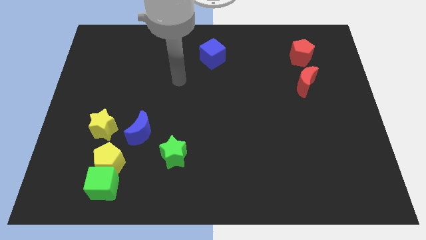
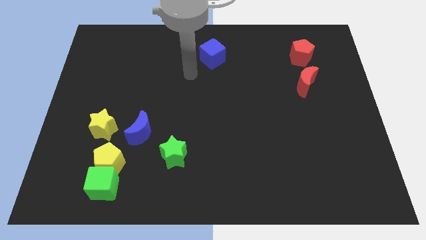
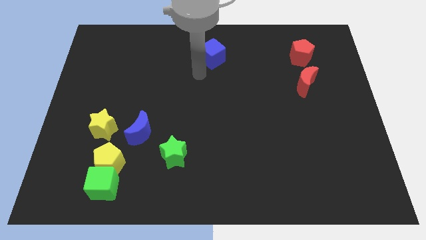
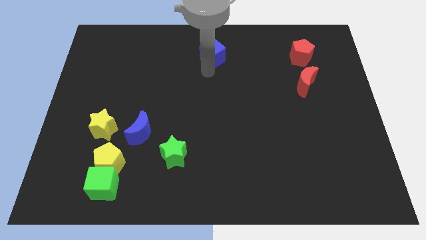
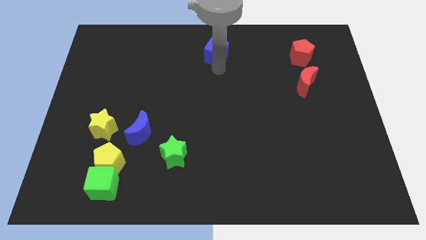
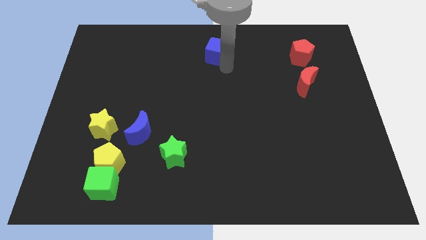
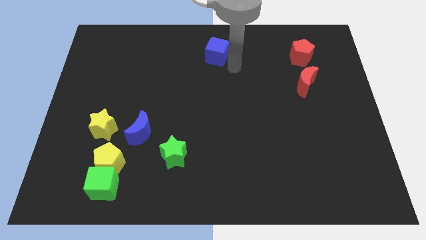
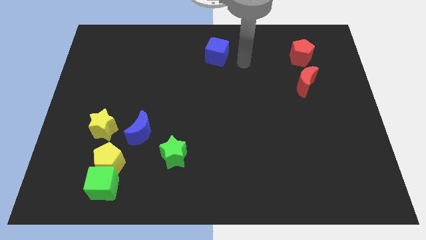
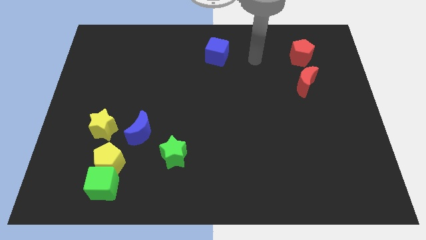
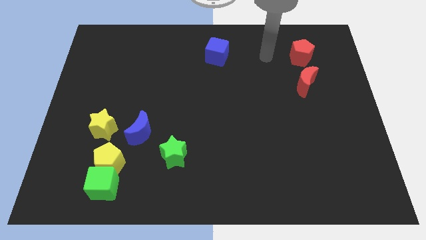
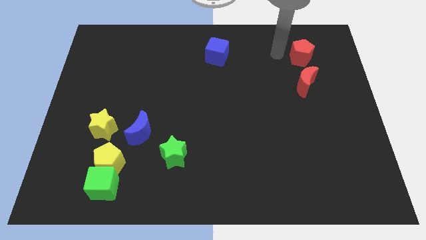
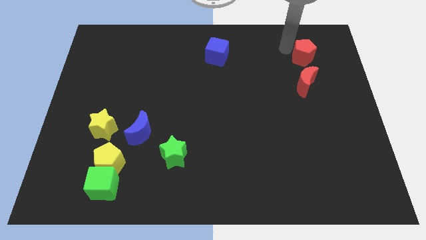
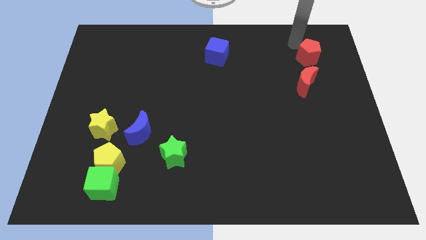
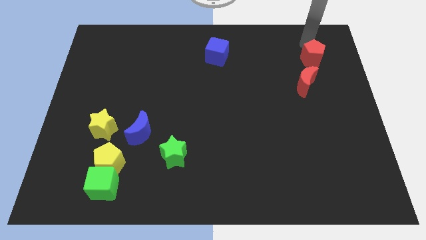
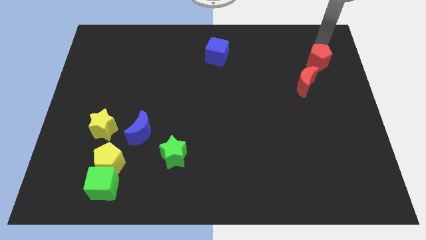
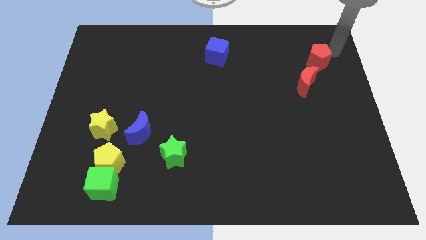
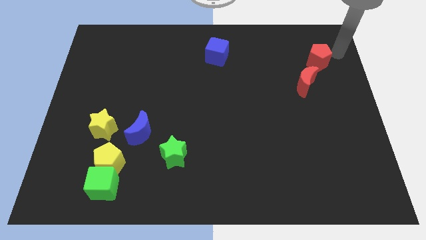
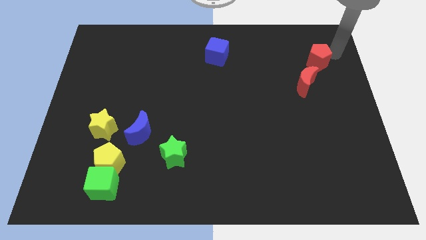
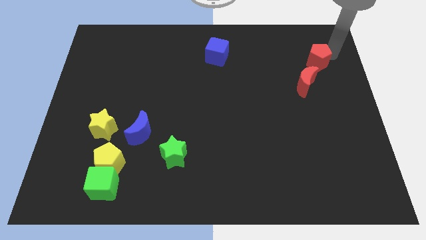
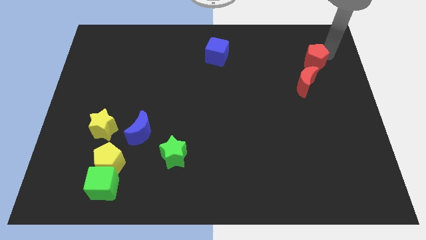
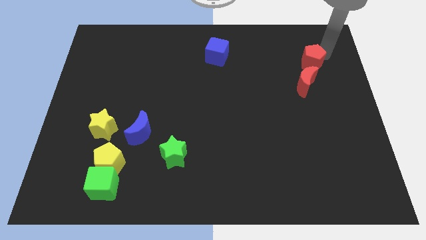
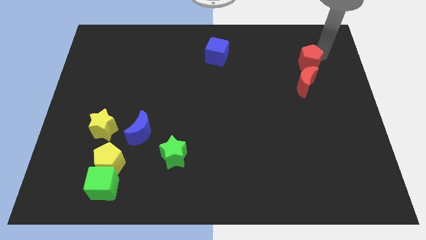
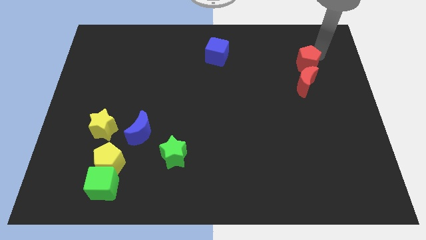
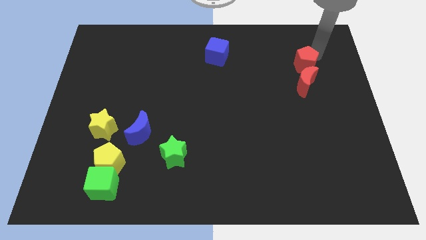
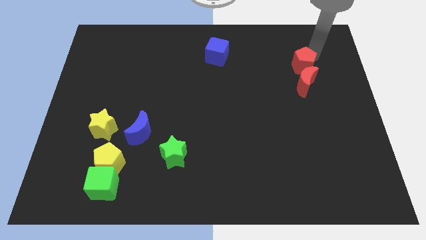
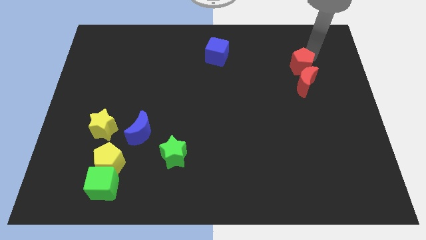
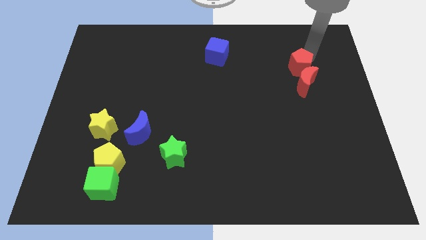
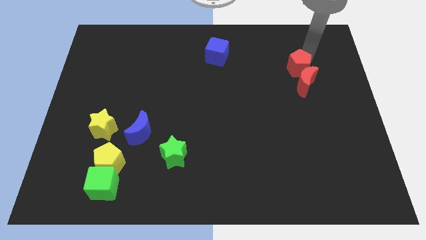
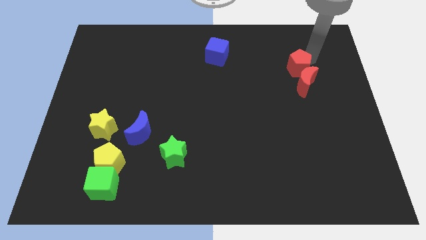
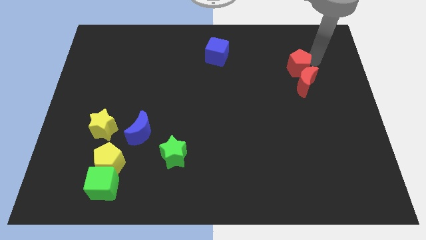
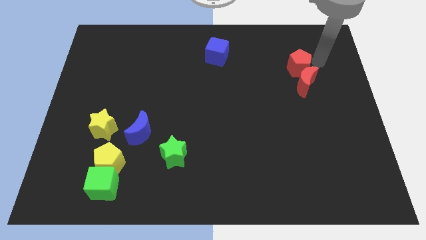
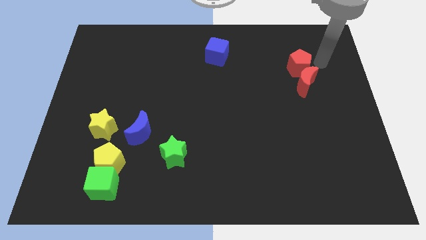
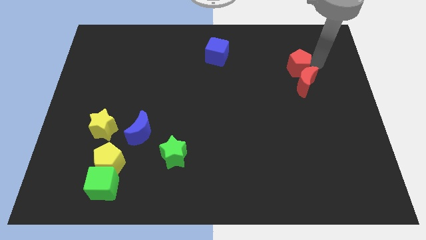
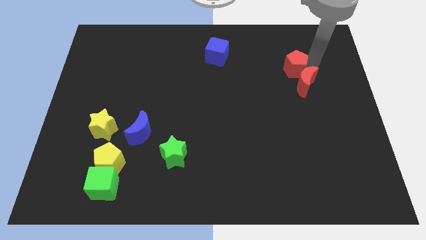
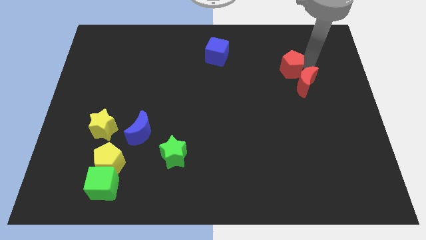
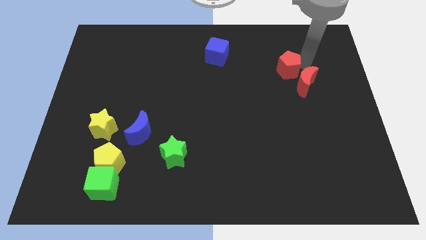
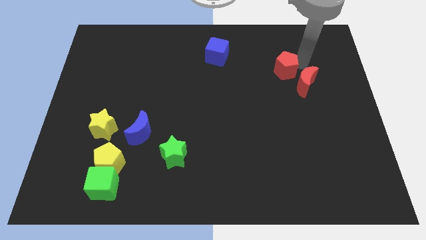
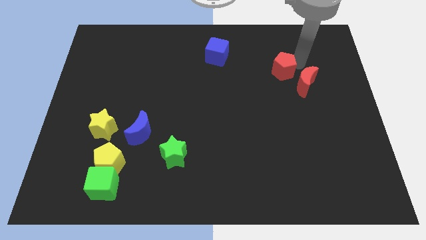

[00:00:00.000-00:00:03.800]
slightly move the red pentagon diagonally downwards and to the left

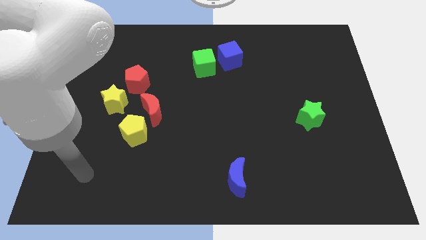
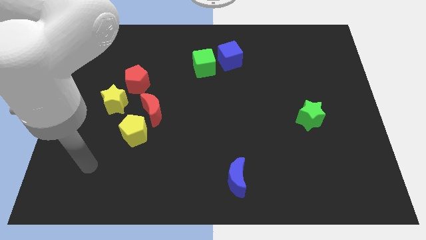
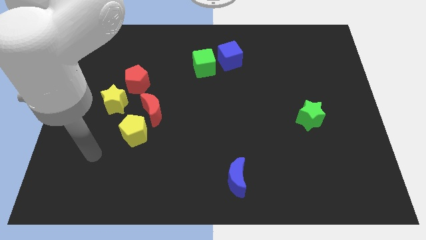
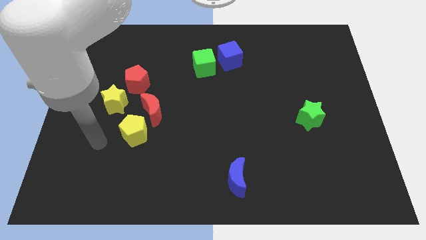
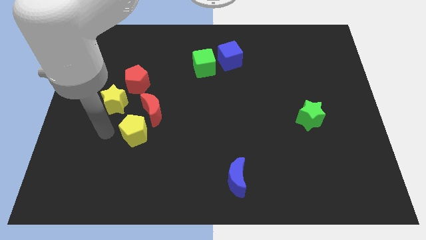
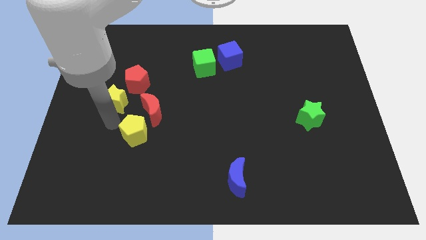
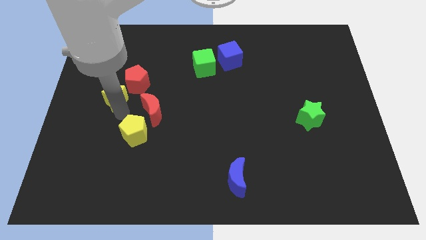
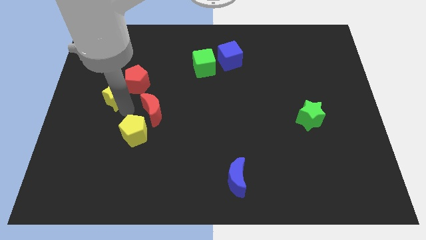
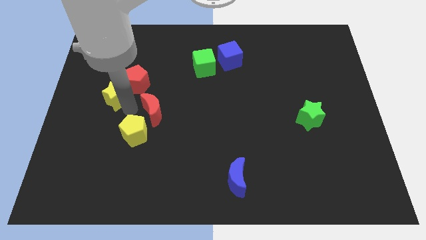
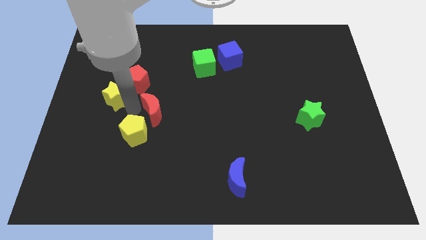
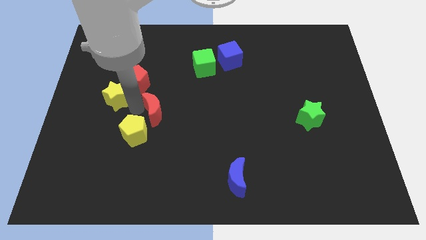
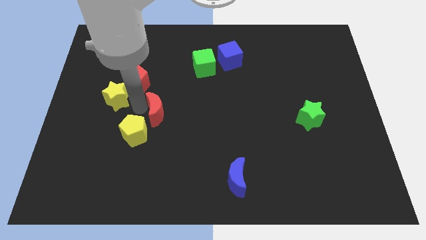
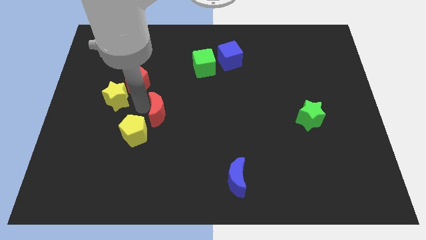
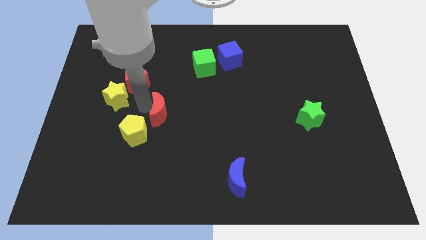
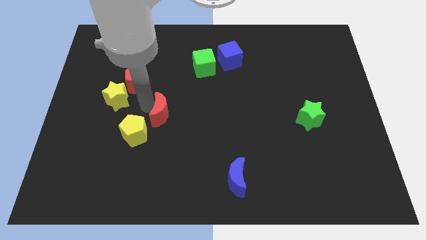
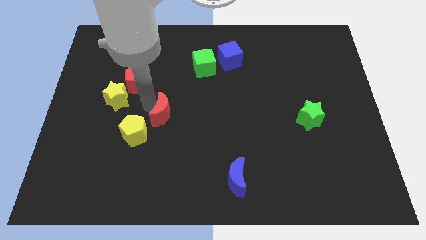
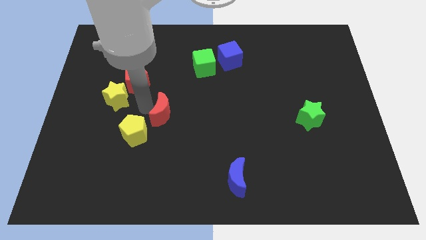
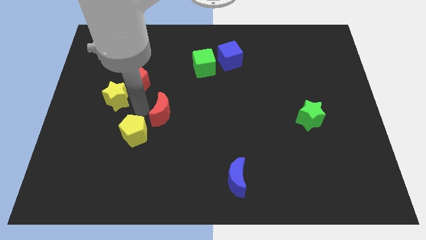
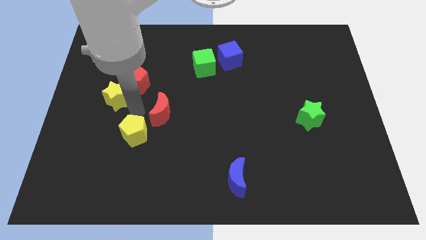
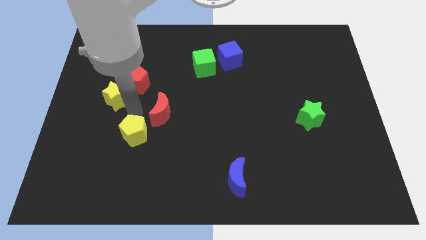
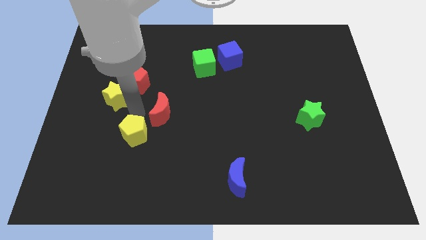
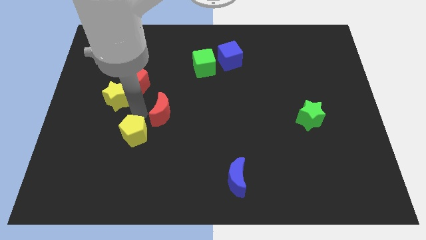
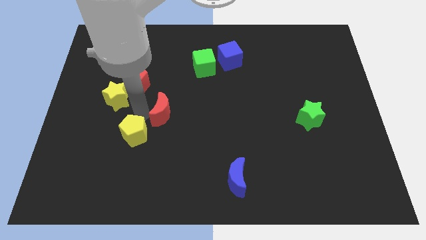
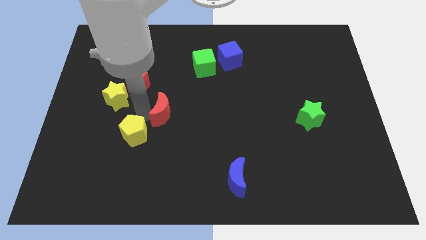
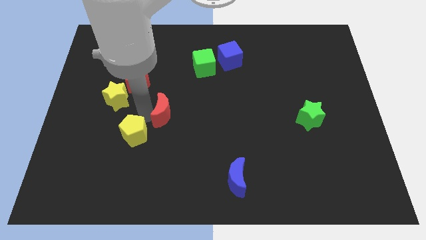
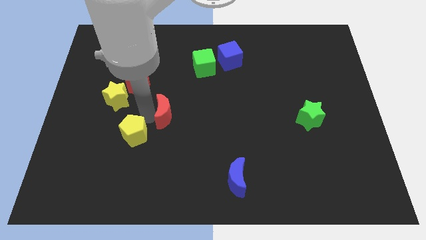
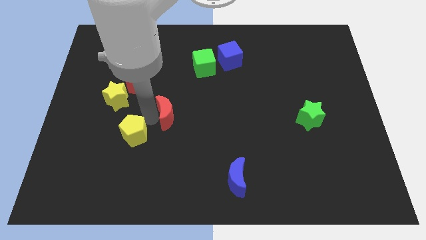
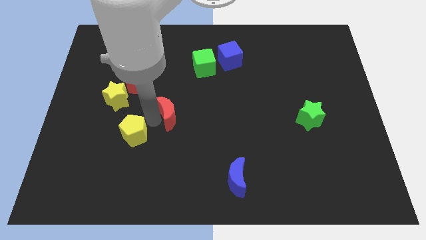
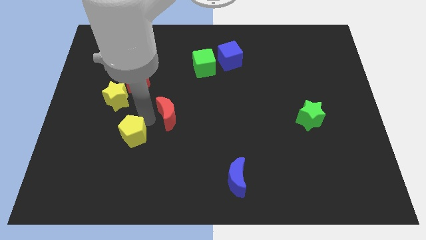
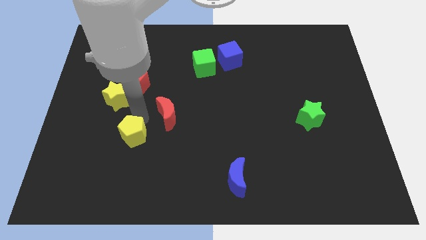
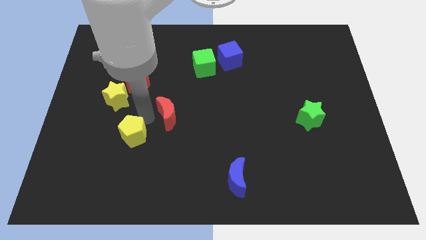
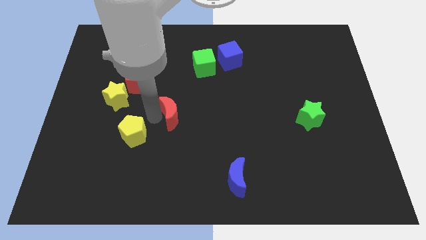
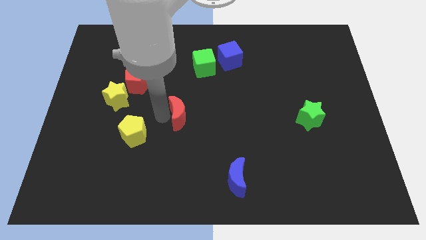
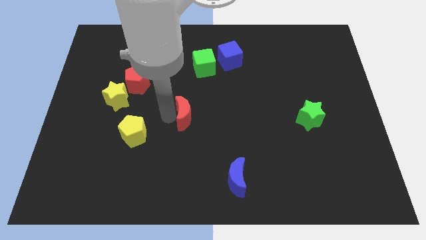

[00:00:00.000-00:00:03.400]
slightly push the red moon to the right

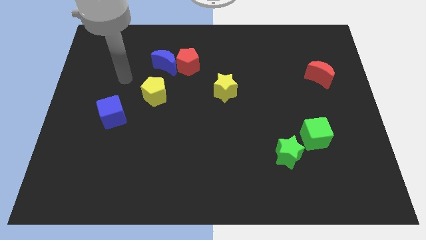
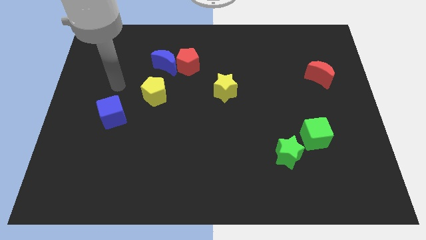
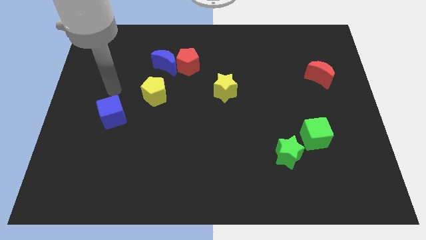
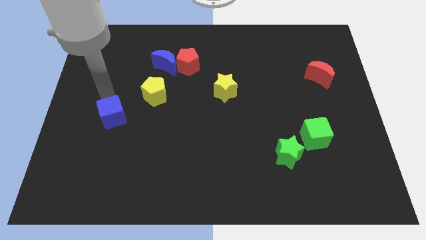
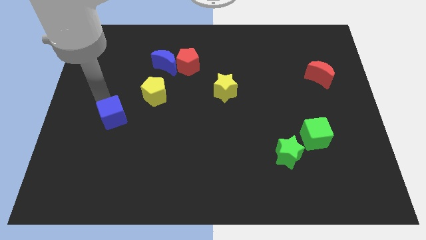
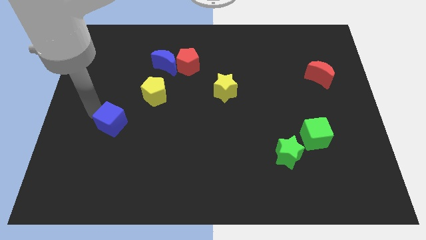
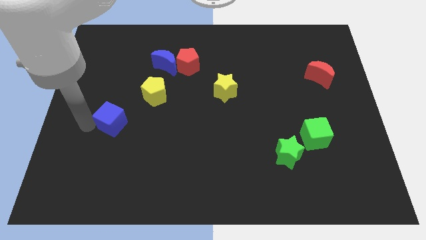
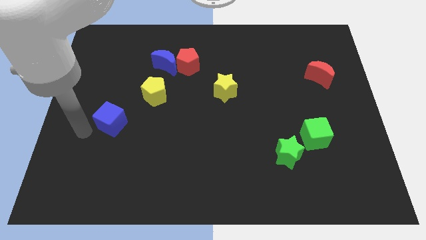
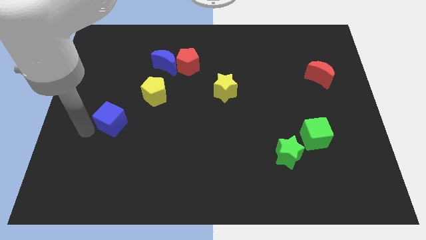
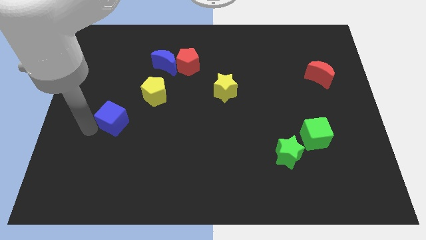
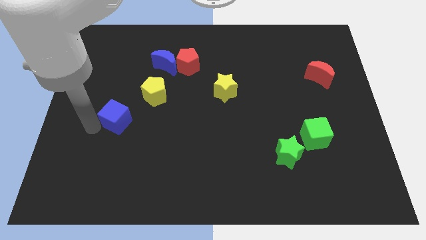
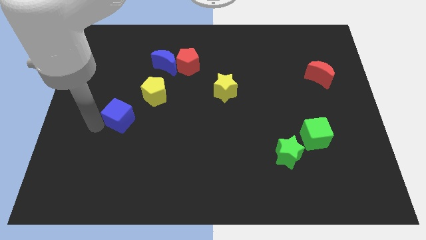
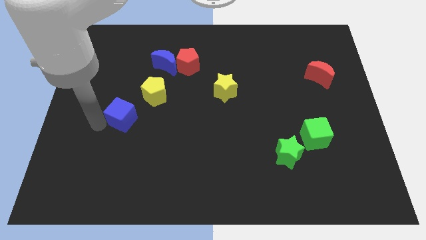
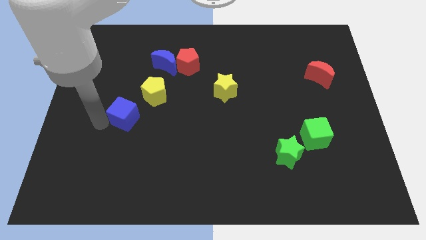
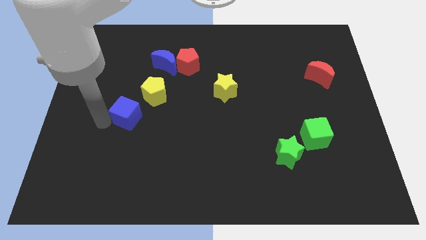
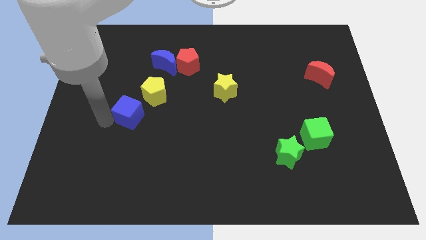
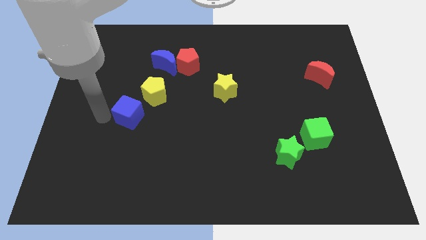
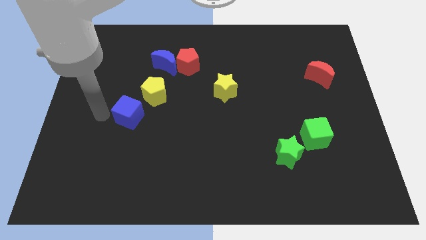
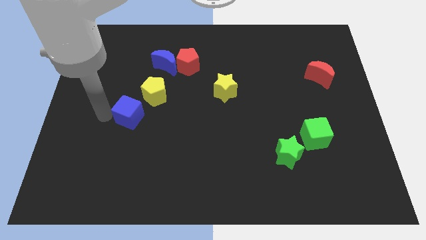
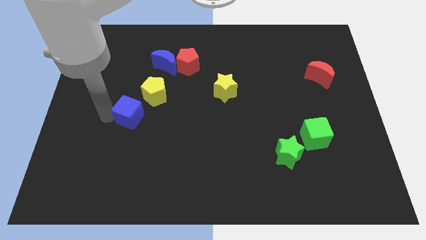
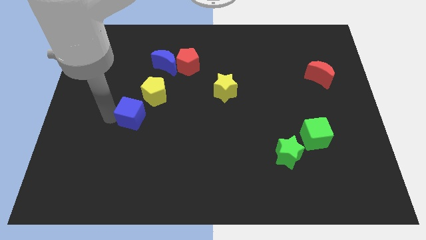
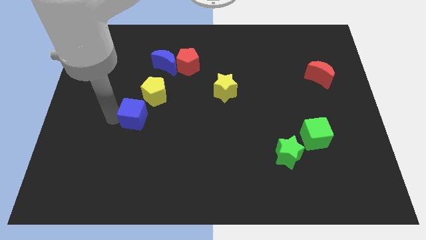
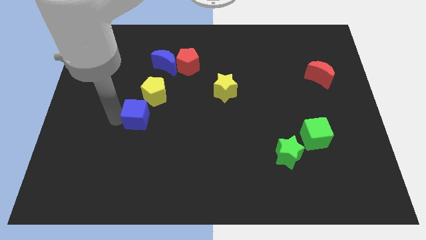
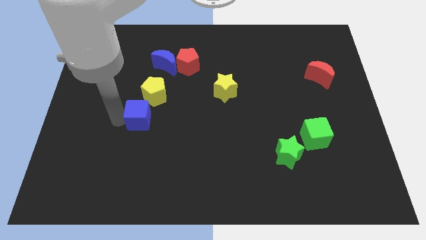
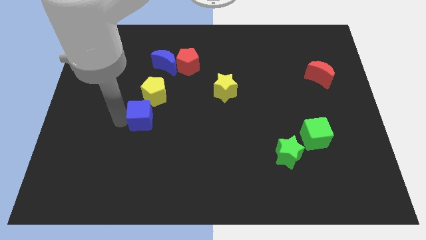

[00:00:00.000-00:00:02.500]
push the blue cube a little right
